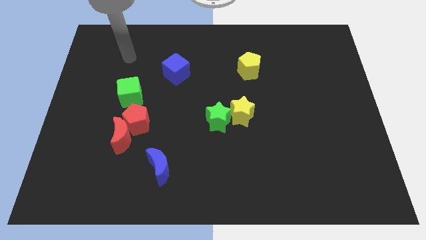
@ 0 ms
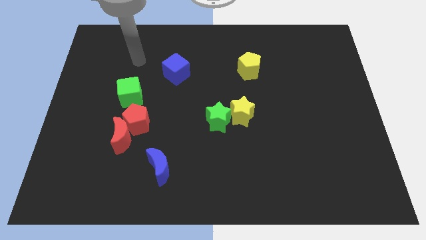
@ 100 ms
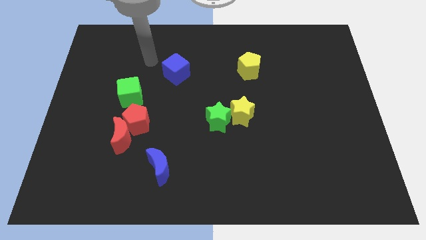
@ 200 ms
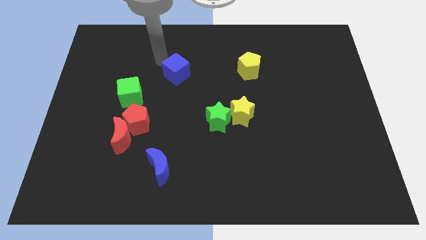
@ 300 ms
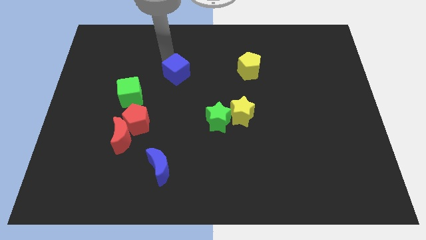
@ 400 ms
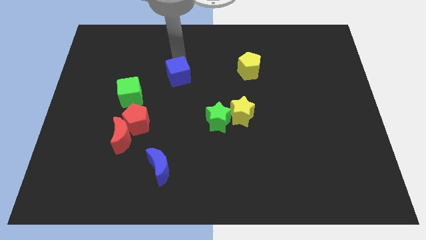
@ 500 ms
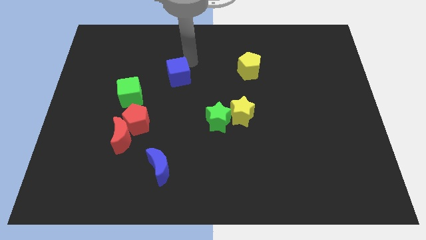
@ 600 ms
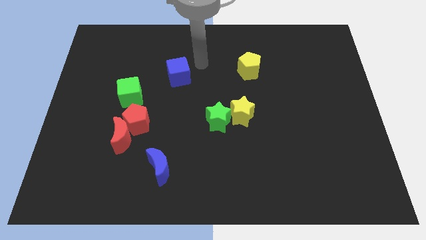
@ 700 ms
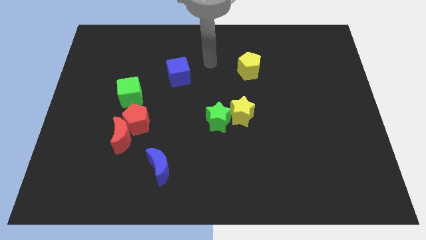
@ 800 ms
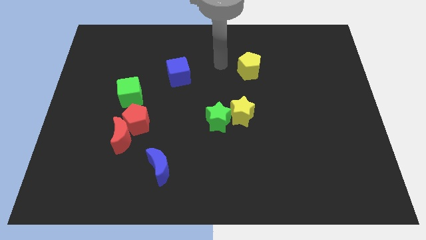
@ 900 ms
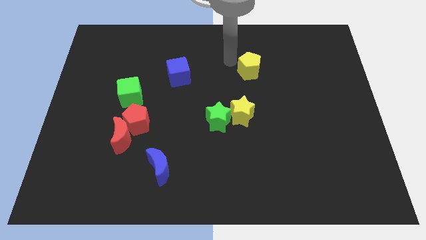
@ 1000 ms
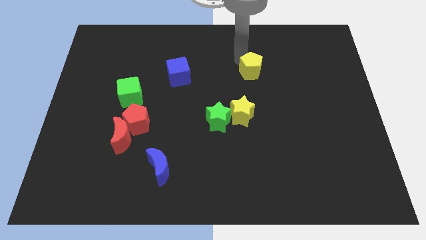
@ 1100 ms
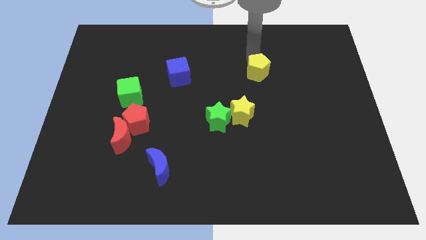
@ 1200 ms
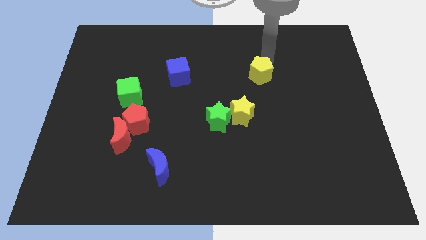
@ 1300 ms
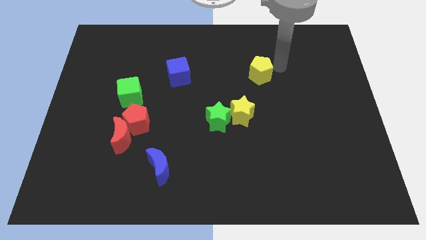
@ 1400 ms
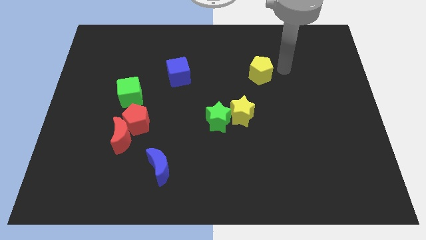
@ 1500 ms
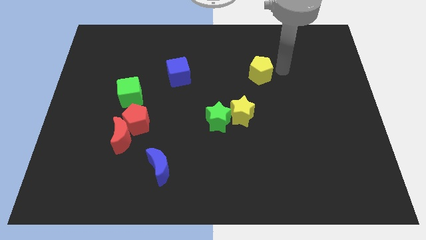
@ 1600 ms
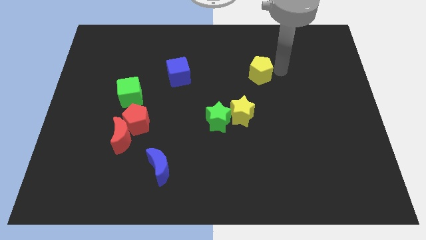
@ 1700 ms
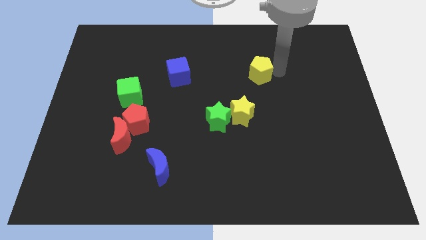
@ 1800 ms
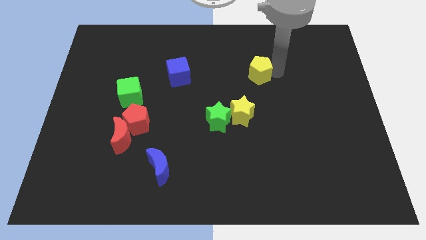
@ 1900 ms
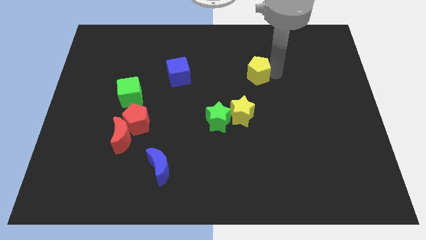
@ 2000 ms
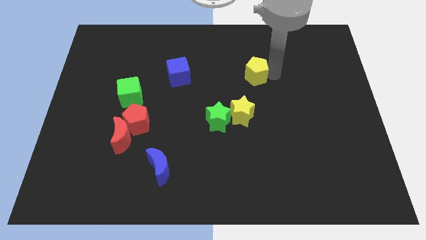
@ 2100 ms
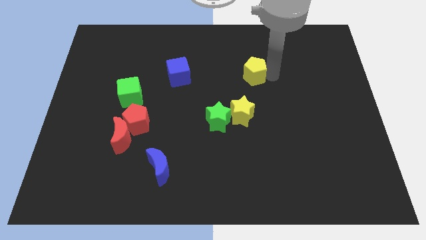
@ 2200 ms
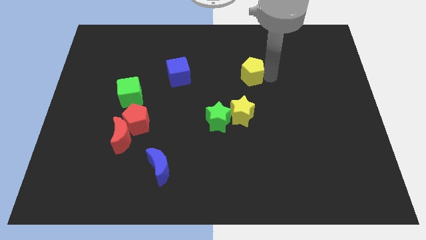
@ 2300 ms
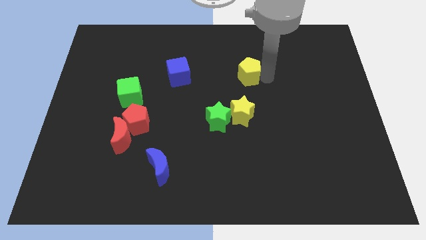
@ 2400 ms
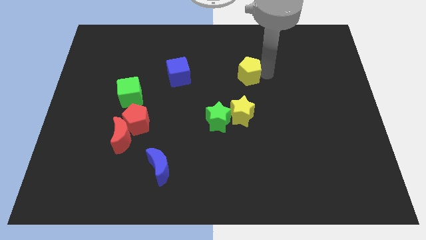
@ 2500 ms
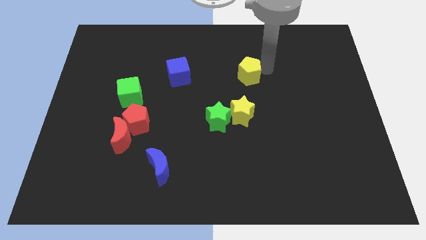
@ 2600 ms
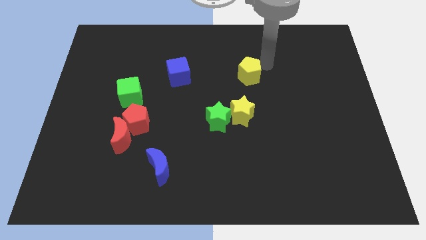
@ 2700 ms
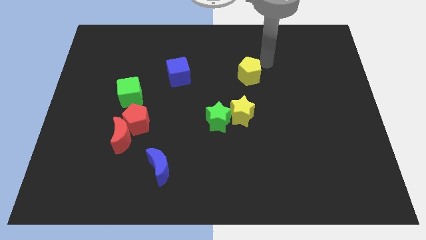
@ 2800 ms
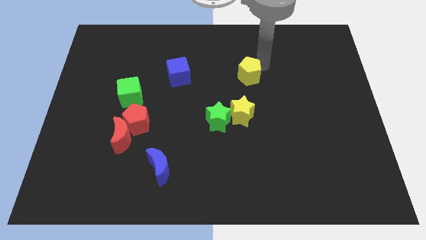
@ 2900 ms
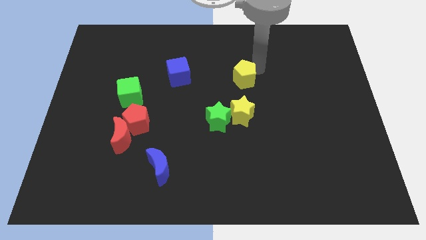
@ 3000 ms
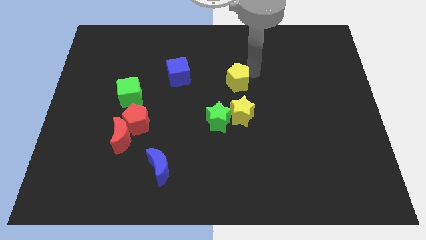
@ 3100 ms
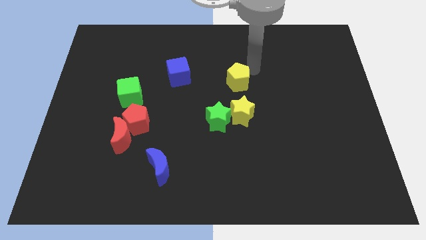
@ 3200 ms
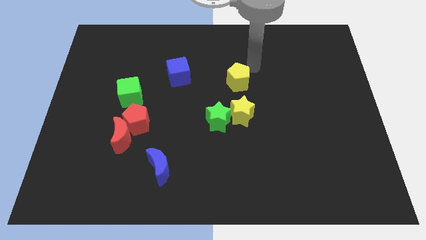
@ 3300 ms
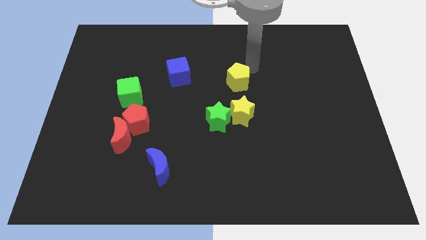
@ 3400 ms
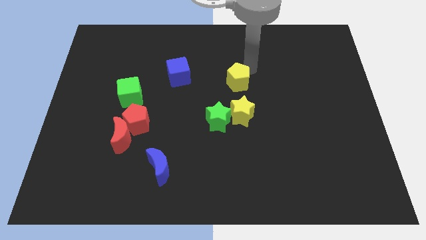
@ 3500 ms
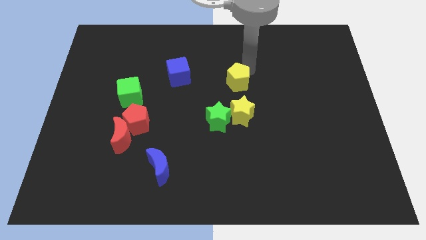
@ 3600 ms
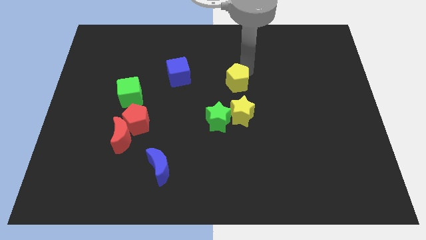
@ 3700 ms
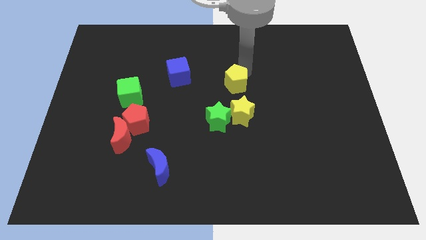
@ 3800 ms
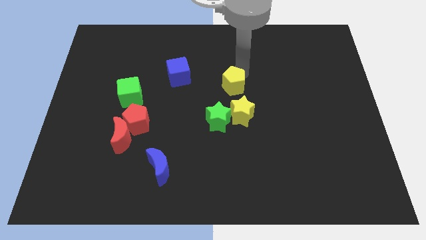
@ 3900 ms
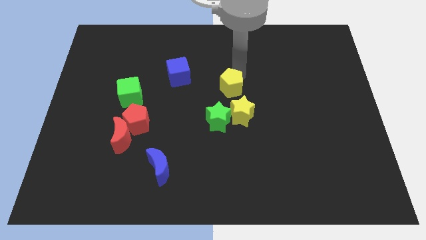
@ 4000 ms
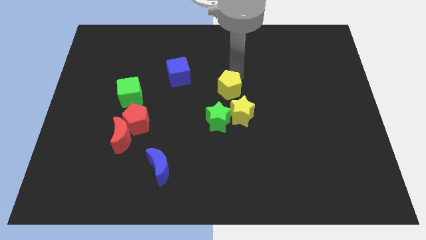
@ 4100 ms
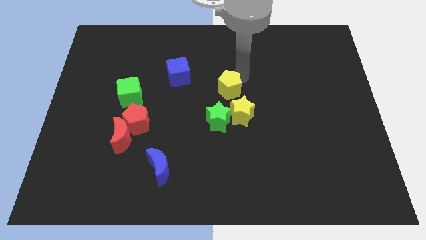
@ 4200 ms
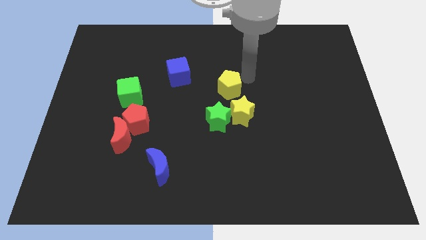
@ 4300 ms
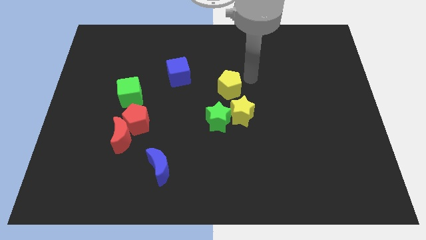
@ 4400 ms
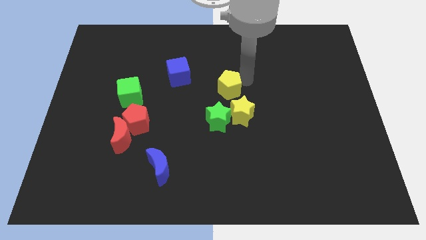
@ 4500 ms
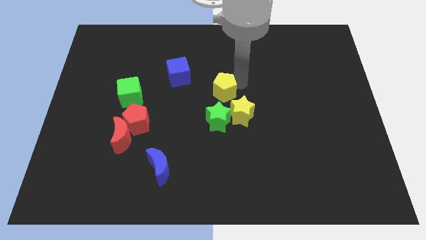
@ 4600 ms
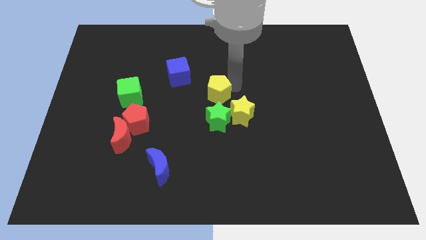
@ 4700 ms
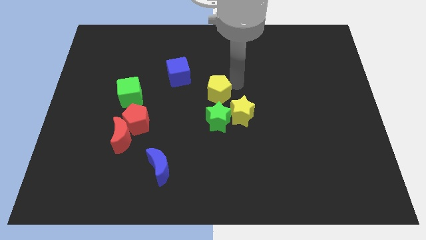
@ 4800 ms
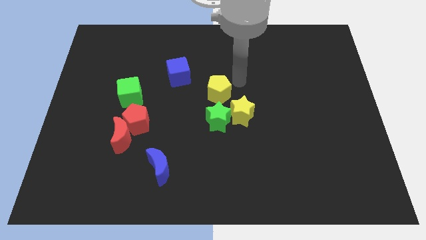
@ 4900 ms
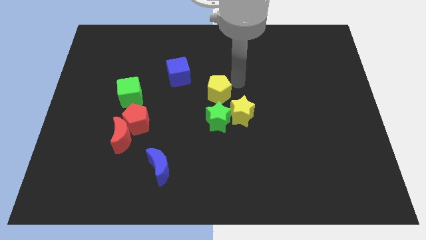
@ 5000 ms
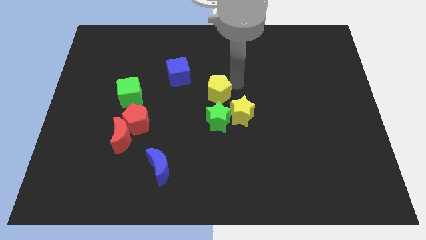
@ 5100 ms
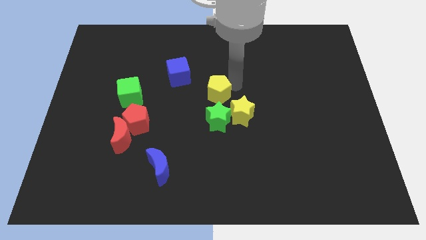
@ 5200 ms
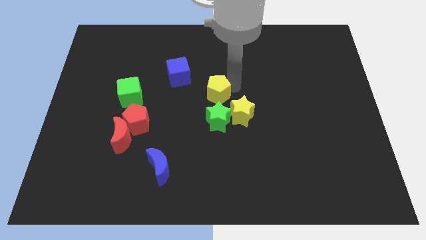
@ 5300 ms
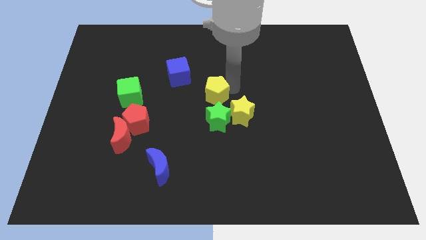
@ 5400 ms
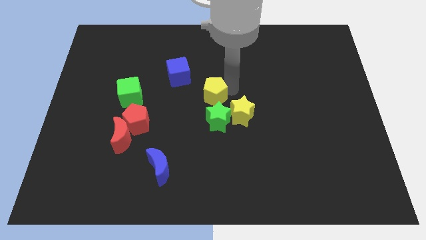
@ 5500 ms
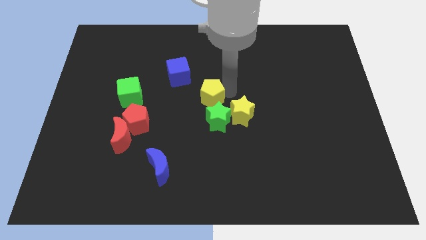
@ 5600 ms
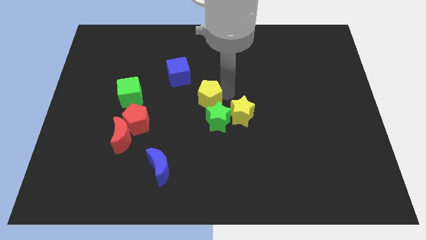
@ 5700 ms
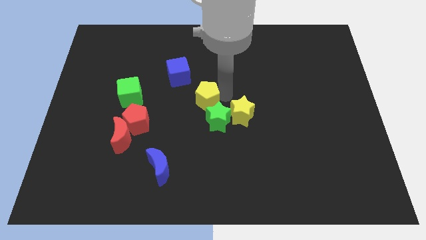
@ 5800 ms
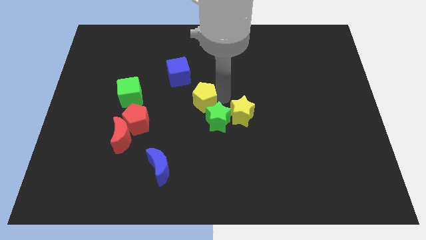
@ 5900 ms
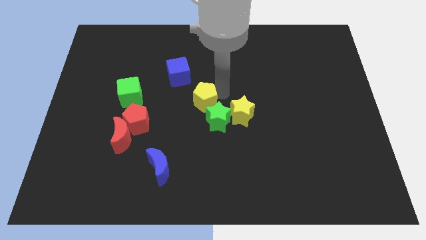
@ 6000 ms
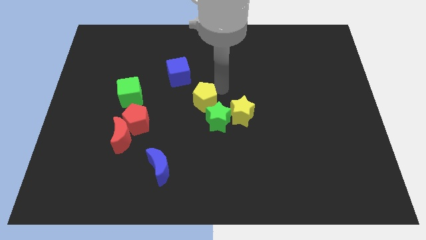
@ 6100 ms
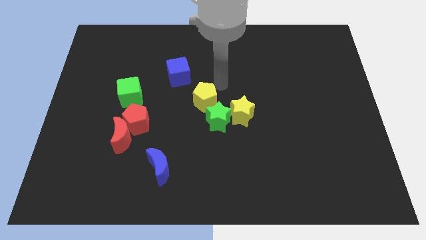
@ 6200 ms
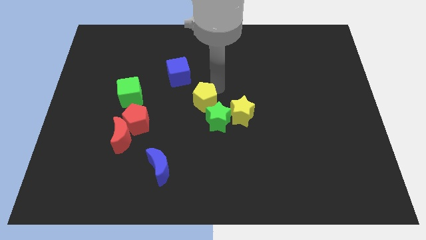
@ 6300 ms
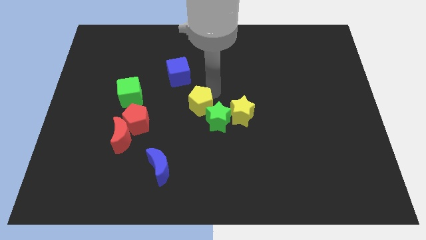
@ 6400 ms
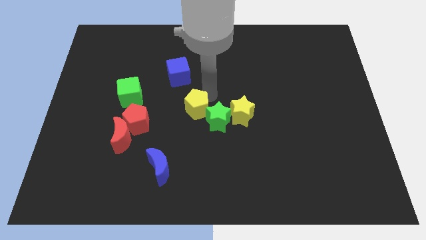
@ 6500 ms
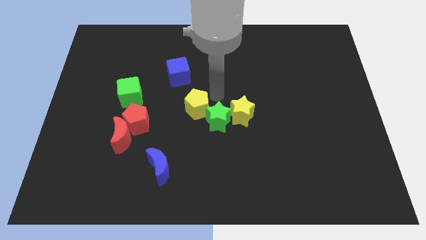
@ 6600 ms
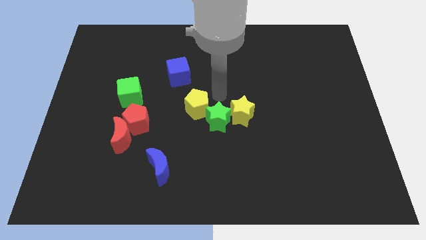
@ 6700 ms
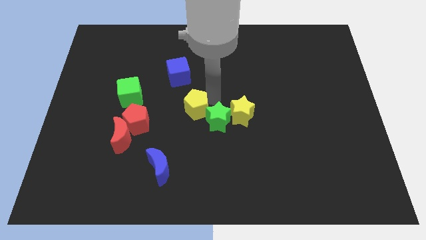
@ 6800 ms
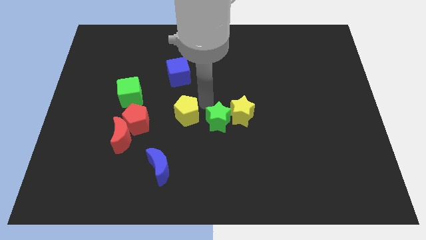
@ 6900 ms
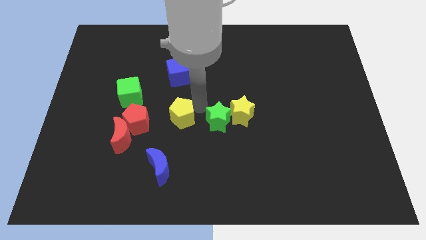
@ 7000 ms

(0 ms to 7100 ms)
push the yellow pentagon to the top side of the blue moon
